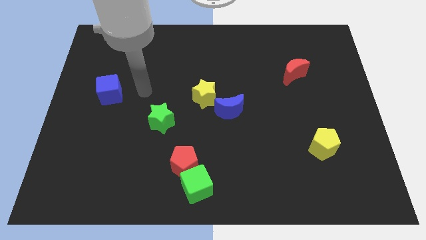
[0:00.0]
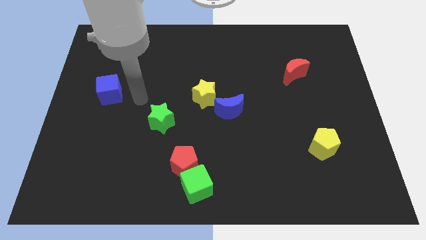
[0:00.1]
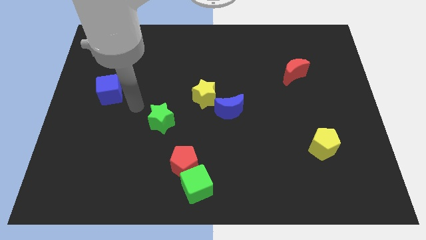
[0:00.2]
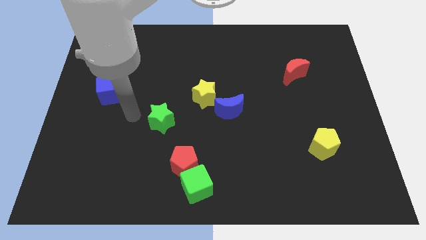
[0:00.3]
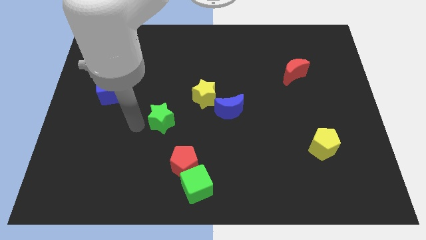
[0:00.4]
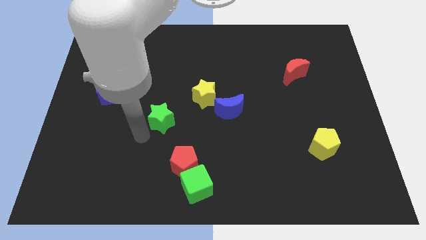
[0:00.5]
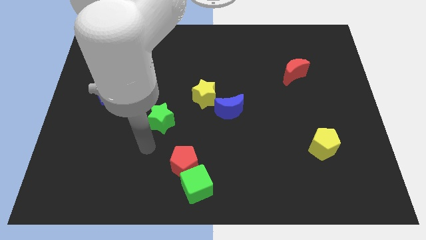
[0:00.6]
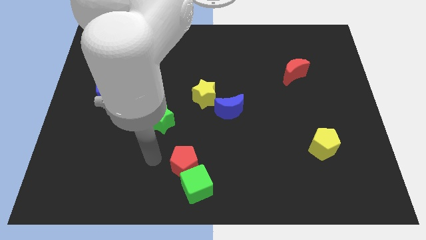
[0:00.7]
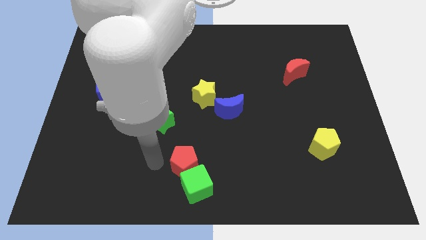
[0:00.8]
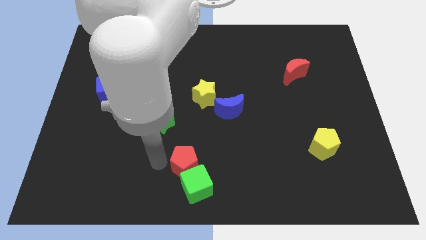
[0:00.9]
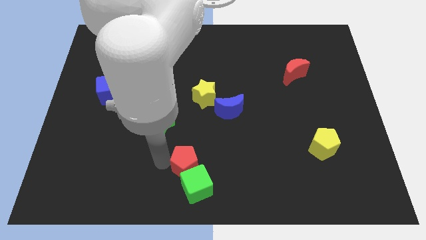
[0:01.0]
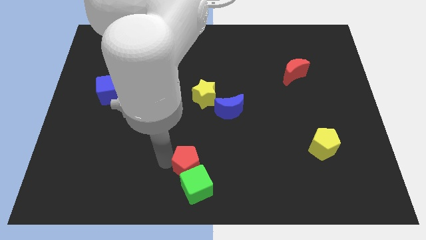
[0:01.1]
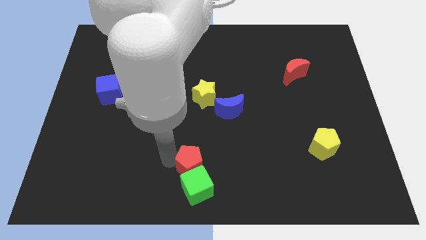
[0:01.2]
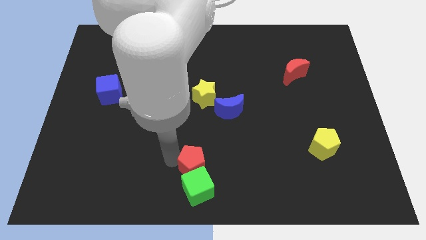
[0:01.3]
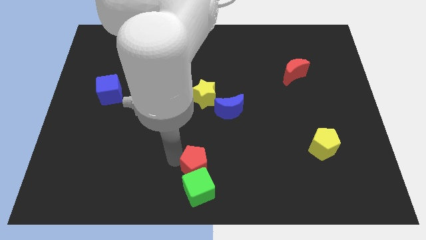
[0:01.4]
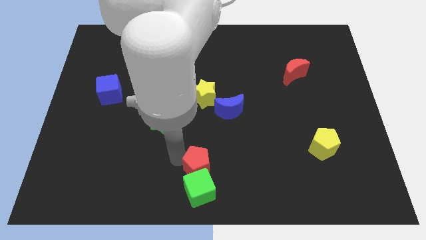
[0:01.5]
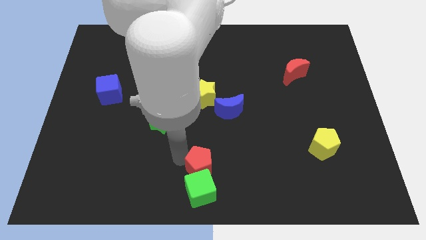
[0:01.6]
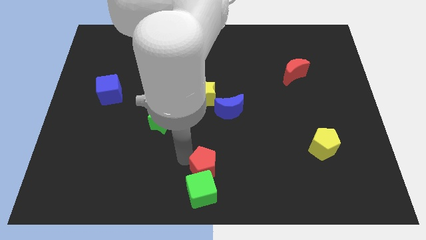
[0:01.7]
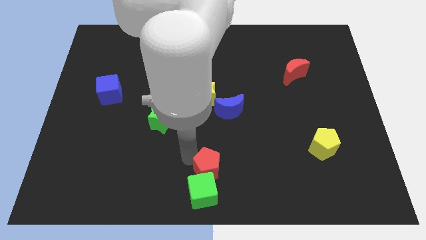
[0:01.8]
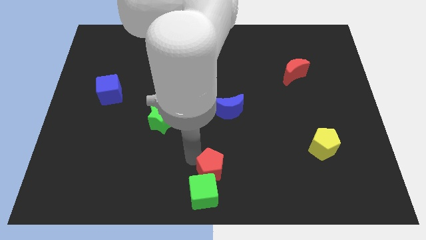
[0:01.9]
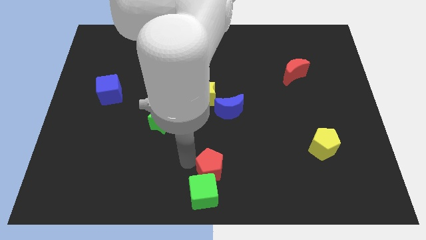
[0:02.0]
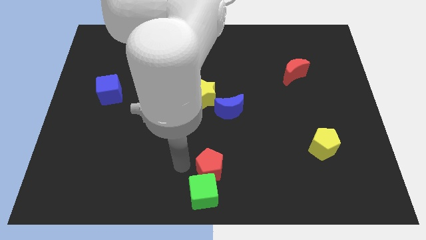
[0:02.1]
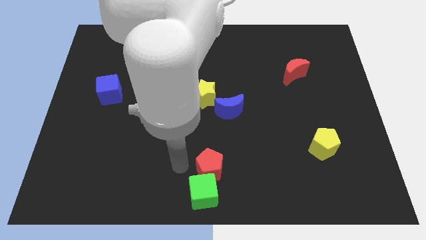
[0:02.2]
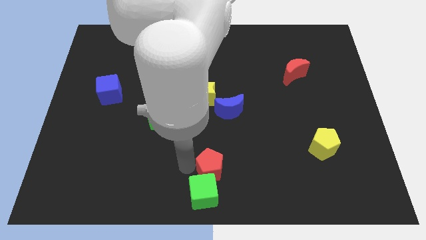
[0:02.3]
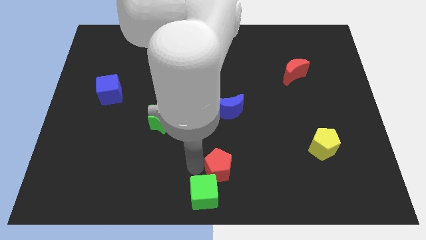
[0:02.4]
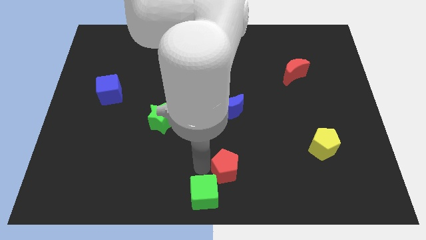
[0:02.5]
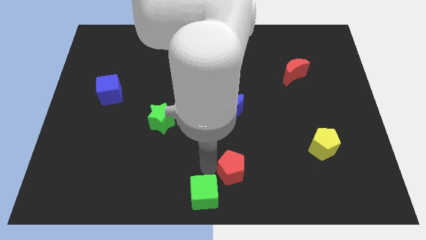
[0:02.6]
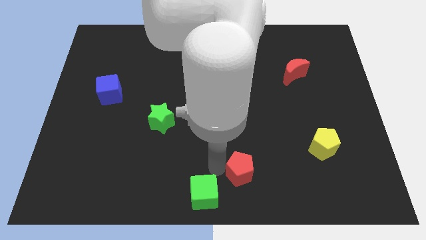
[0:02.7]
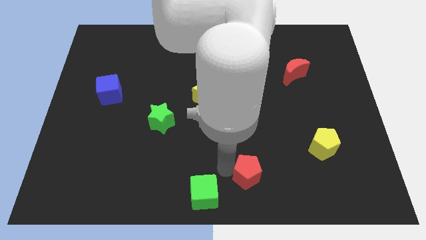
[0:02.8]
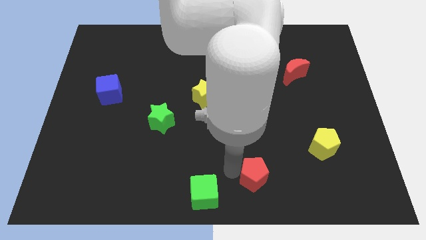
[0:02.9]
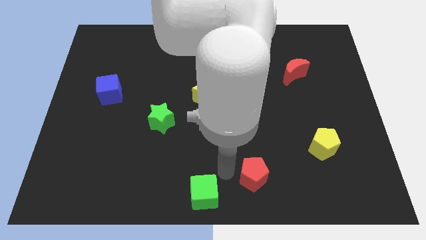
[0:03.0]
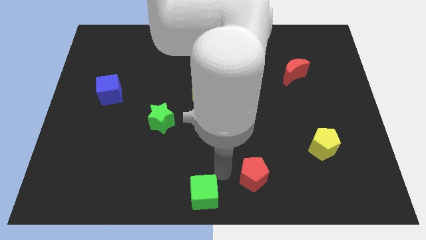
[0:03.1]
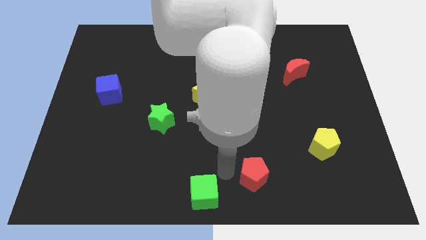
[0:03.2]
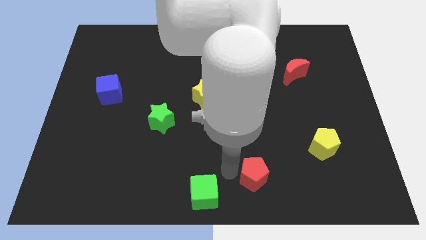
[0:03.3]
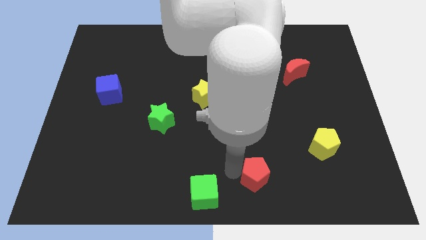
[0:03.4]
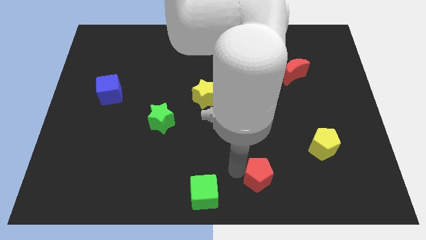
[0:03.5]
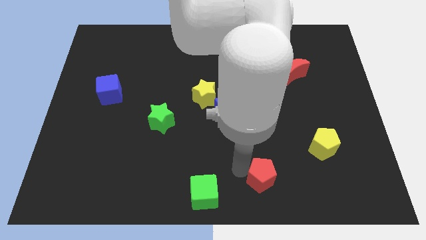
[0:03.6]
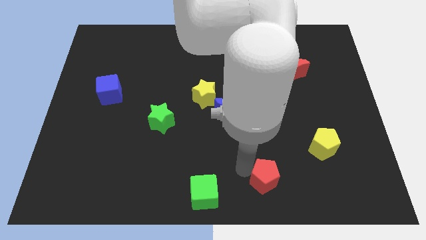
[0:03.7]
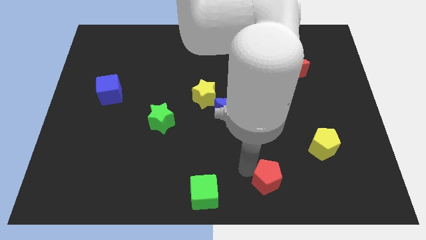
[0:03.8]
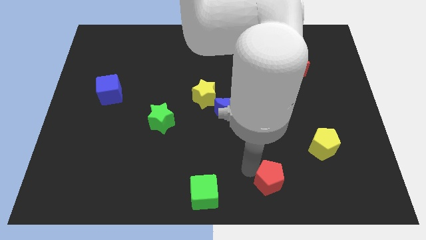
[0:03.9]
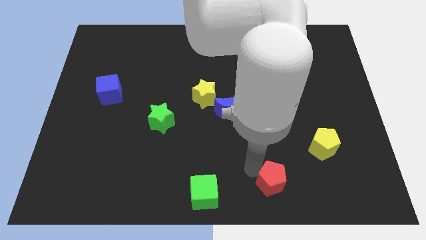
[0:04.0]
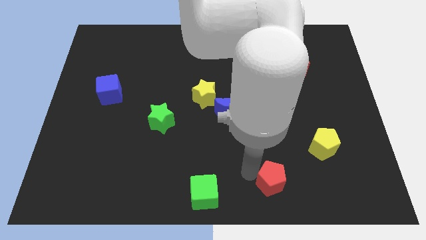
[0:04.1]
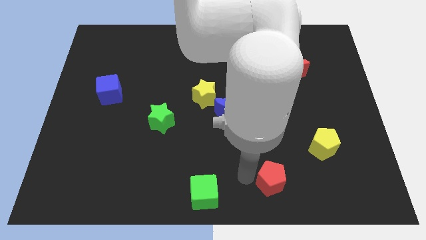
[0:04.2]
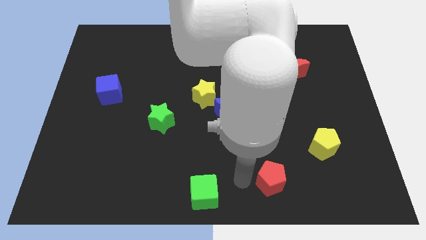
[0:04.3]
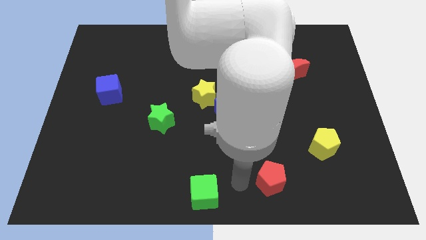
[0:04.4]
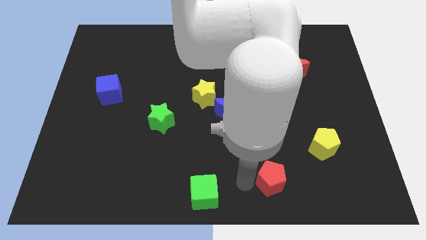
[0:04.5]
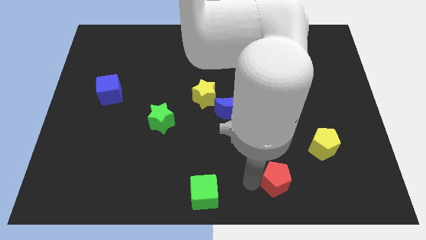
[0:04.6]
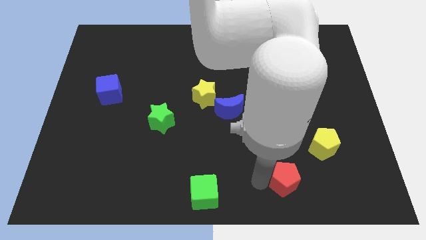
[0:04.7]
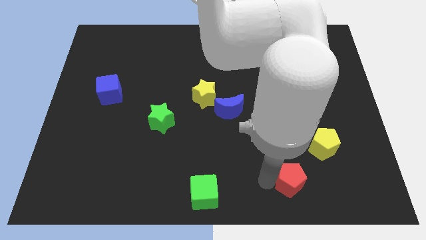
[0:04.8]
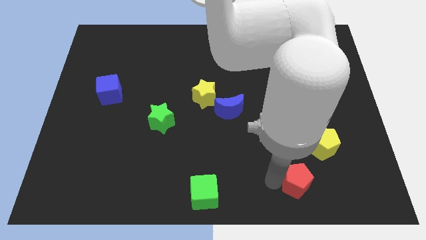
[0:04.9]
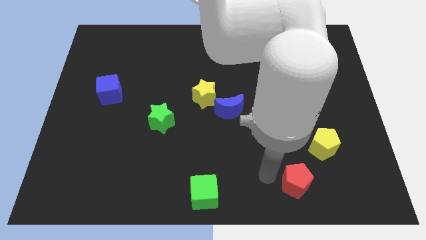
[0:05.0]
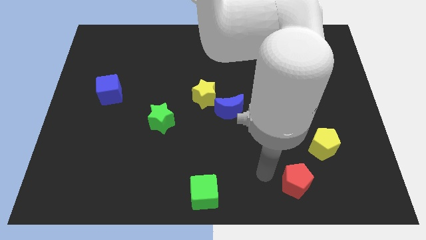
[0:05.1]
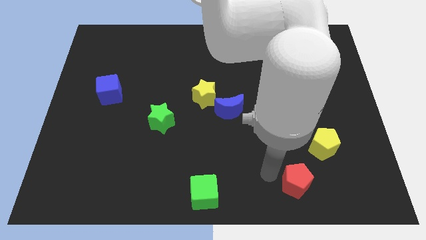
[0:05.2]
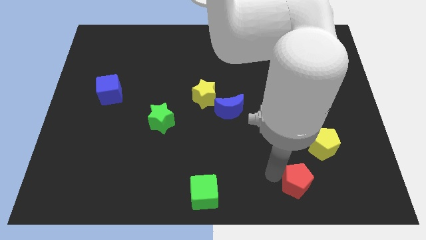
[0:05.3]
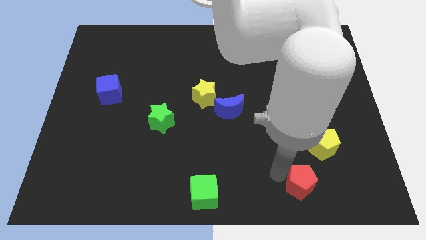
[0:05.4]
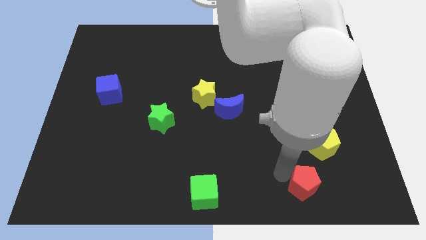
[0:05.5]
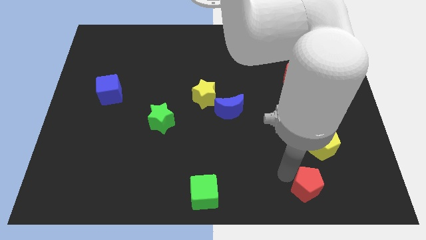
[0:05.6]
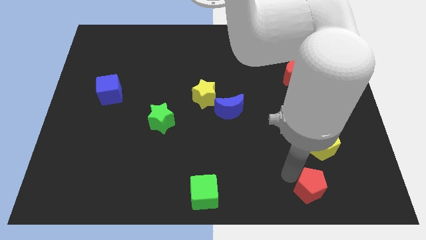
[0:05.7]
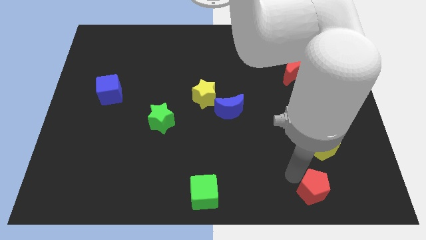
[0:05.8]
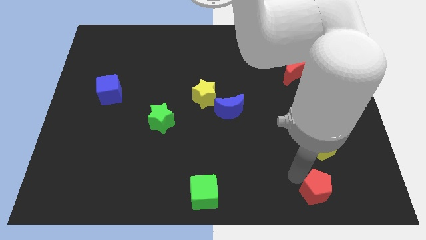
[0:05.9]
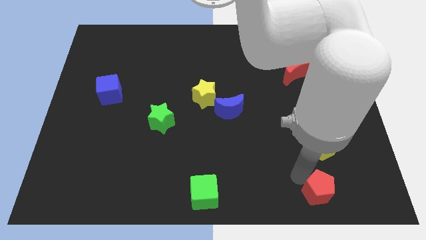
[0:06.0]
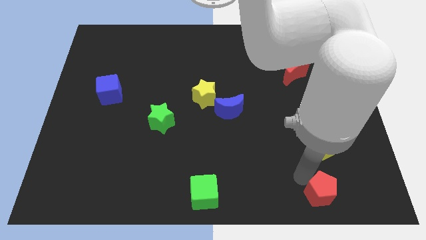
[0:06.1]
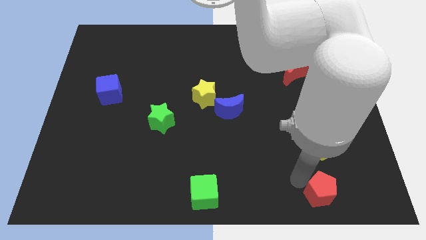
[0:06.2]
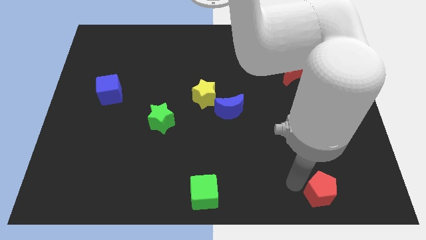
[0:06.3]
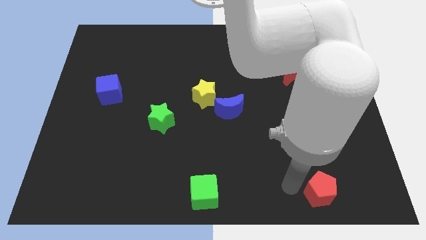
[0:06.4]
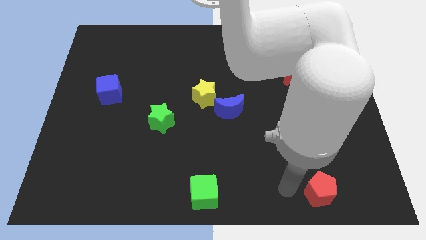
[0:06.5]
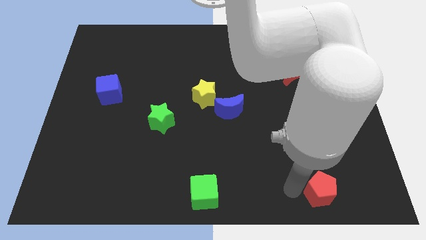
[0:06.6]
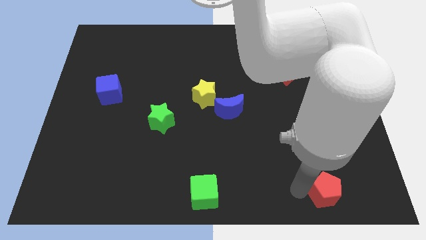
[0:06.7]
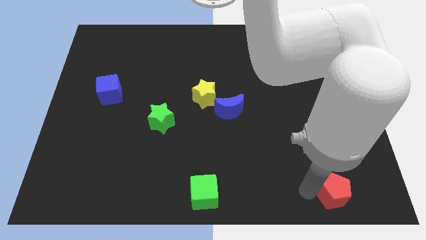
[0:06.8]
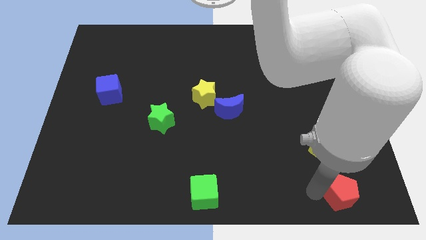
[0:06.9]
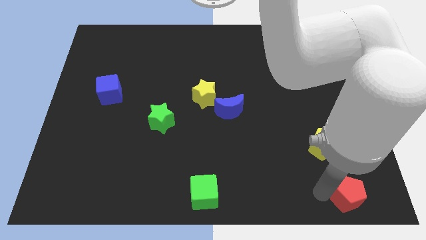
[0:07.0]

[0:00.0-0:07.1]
move the red pentagon to the bottom right of the board
